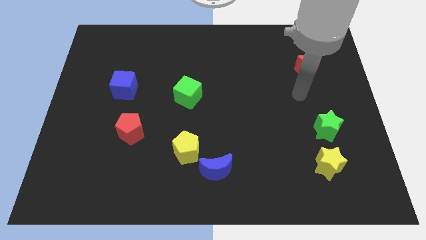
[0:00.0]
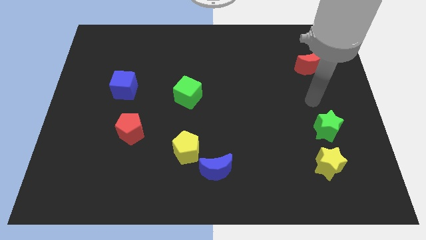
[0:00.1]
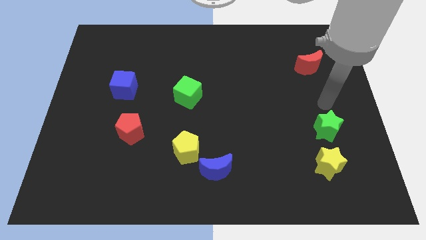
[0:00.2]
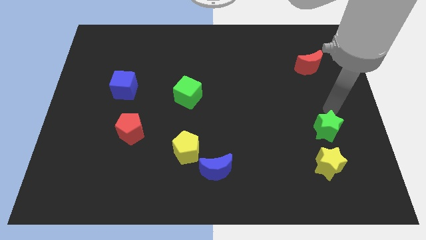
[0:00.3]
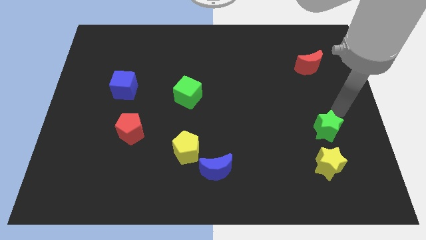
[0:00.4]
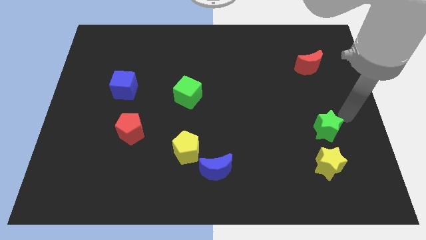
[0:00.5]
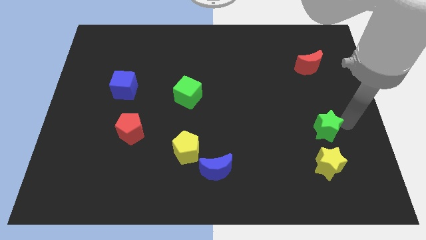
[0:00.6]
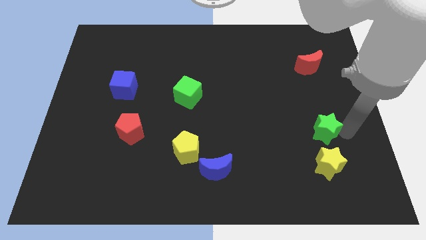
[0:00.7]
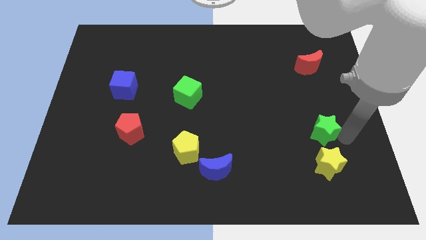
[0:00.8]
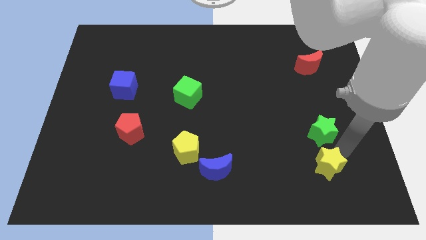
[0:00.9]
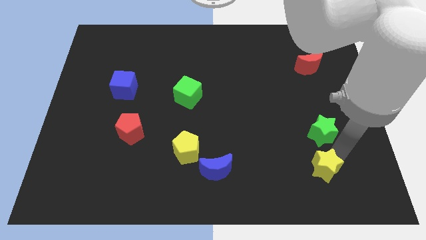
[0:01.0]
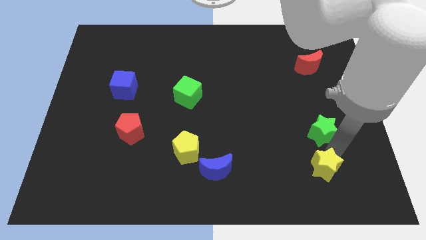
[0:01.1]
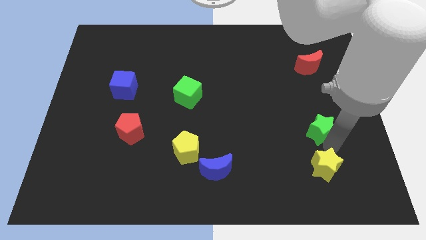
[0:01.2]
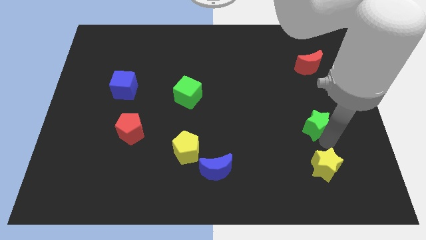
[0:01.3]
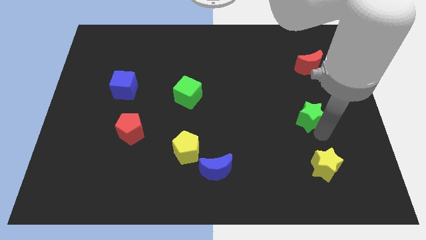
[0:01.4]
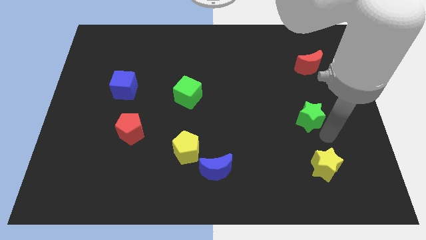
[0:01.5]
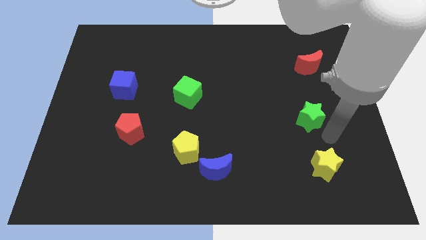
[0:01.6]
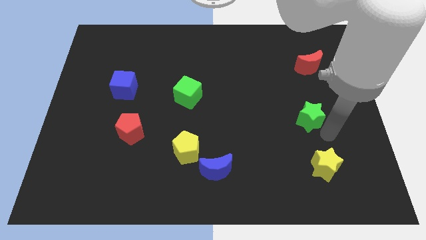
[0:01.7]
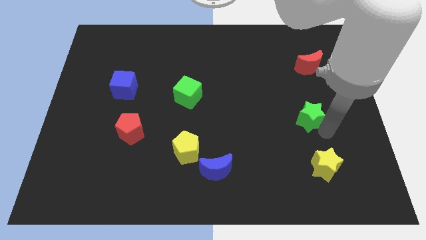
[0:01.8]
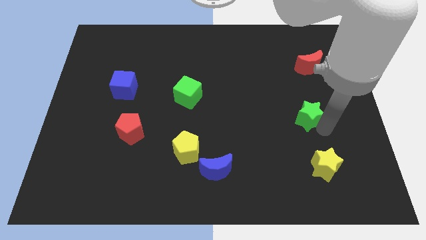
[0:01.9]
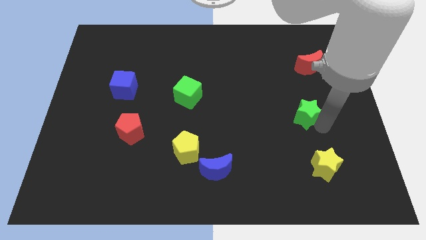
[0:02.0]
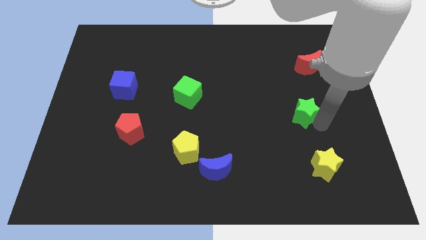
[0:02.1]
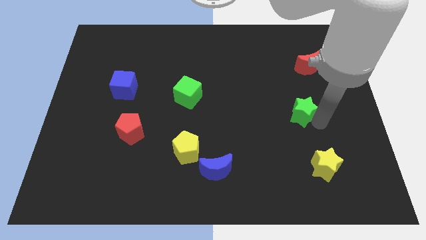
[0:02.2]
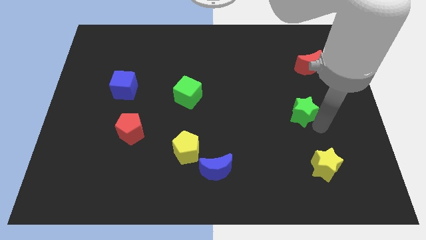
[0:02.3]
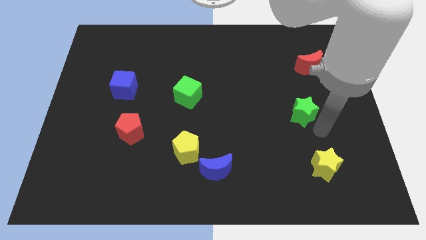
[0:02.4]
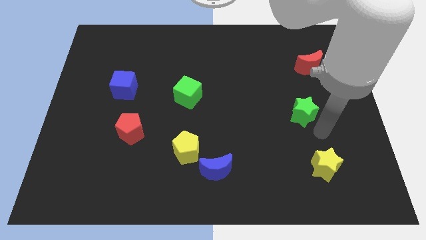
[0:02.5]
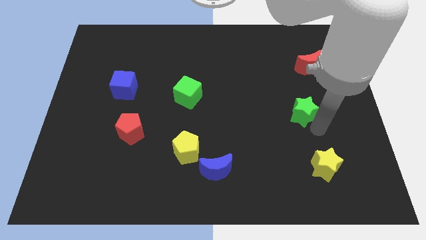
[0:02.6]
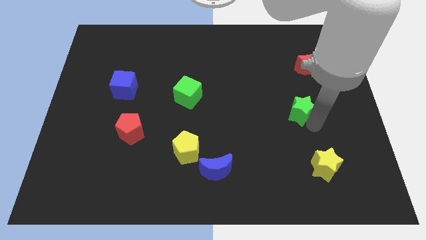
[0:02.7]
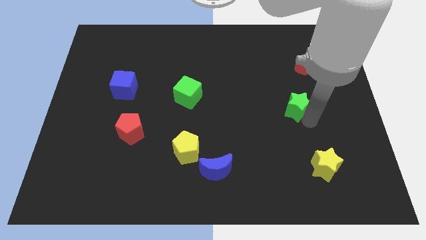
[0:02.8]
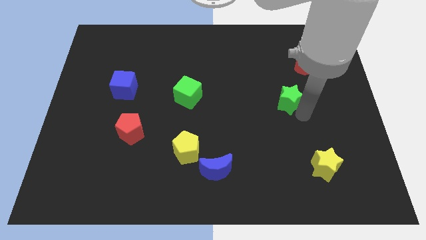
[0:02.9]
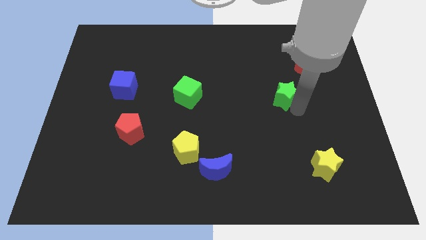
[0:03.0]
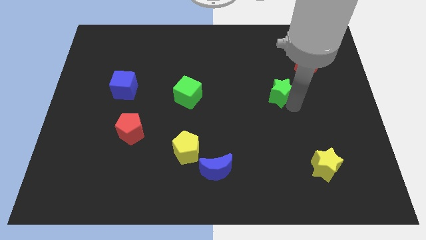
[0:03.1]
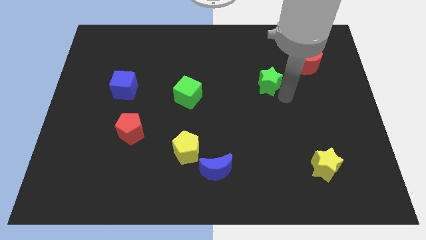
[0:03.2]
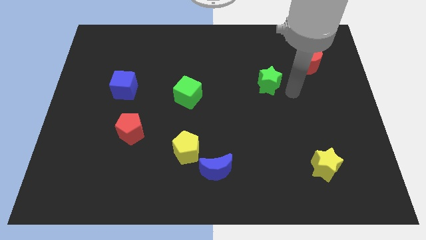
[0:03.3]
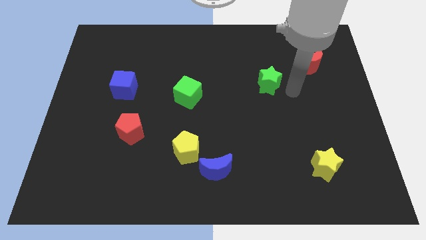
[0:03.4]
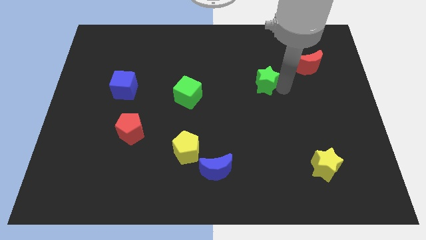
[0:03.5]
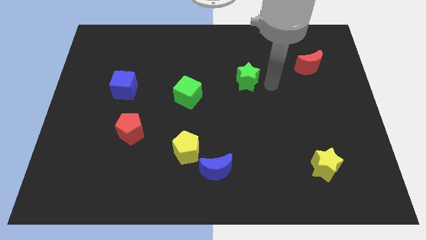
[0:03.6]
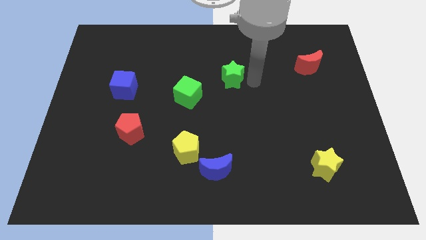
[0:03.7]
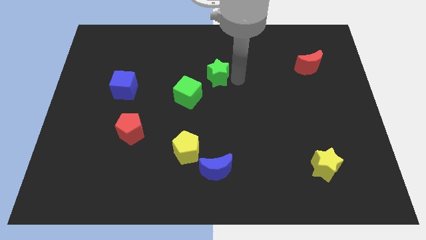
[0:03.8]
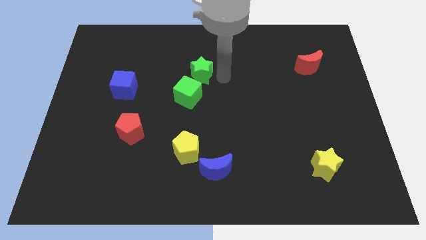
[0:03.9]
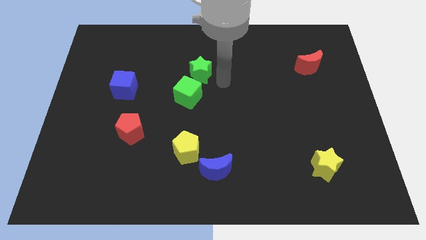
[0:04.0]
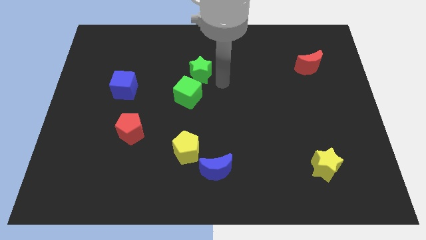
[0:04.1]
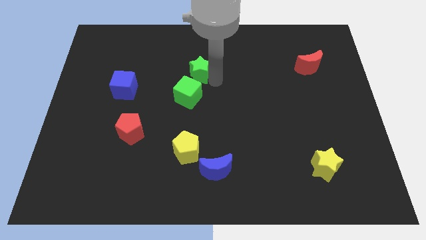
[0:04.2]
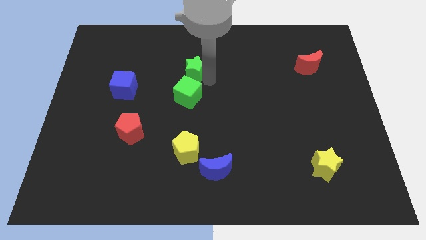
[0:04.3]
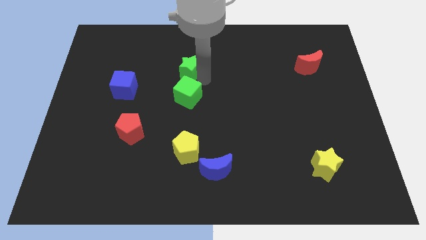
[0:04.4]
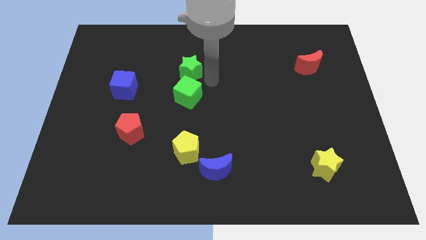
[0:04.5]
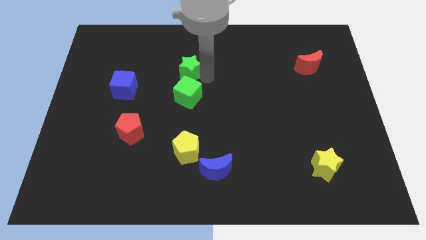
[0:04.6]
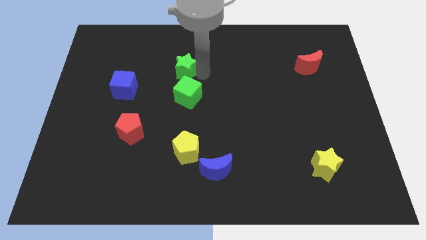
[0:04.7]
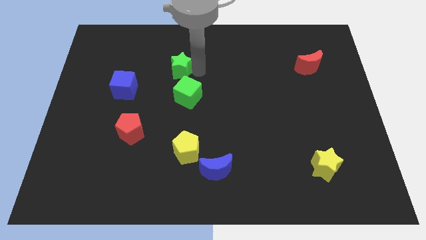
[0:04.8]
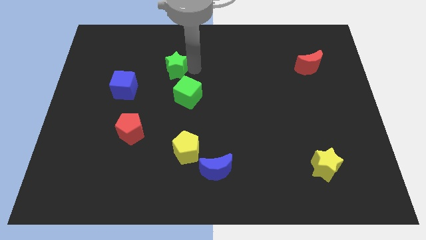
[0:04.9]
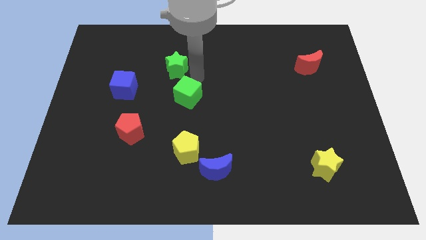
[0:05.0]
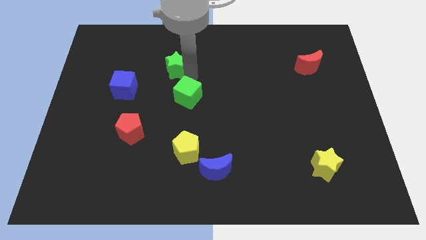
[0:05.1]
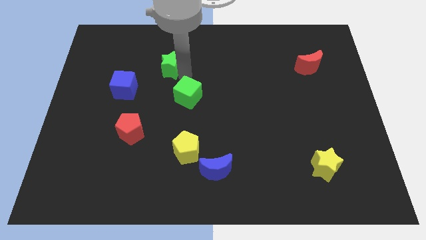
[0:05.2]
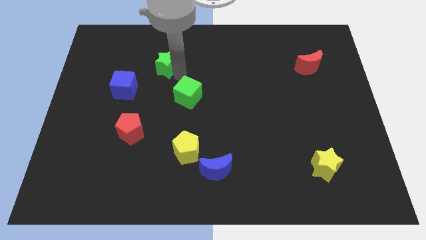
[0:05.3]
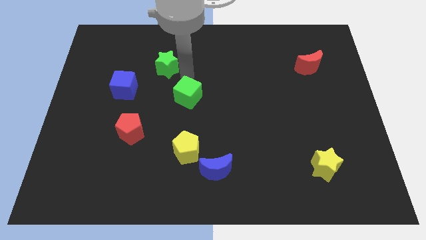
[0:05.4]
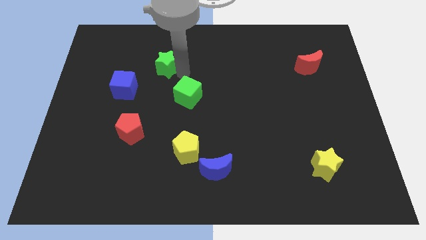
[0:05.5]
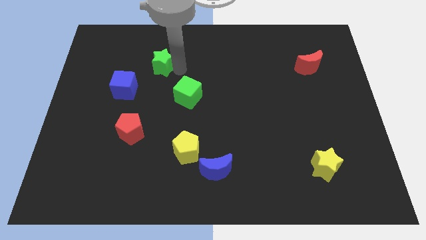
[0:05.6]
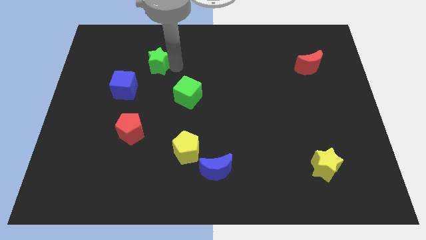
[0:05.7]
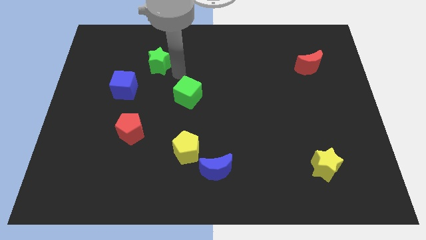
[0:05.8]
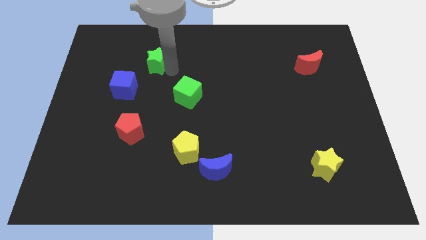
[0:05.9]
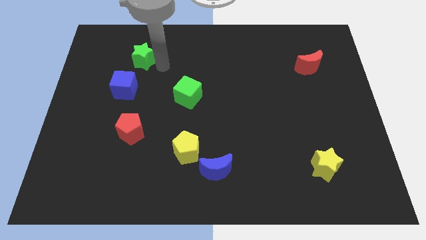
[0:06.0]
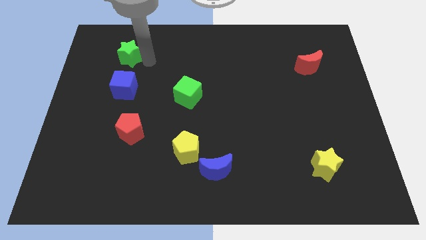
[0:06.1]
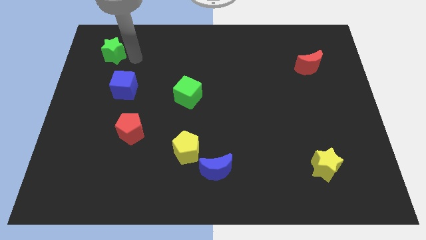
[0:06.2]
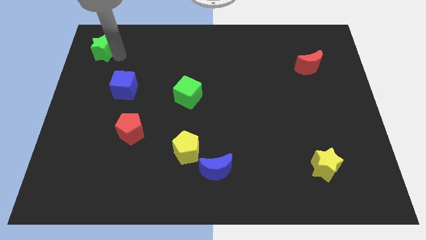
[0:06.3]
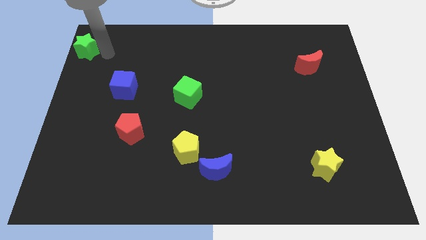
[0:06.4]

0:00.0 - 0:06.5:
push the green star to the top left
